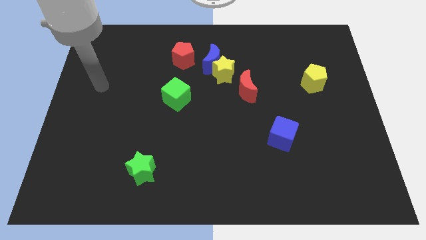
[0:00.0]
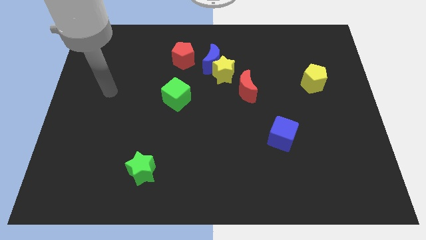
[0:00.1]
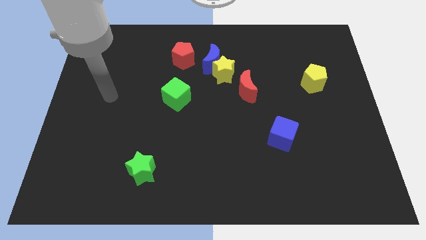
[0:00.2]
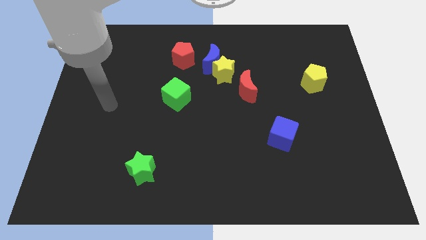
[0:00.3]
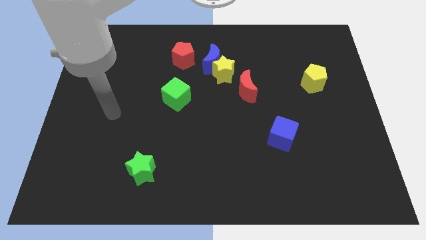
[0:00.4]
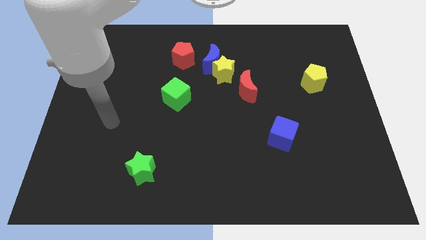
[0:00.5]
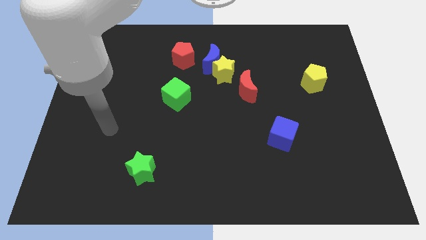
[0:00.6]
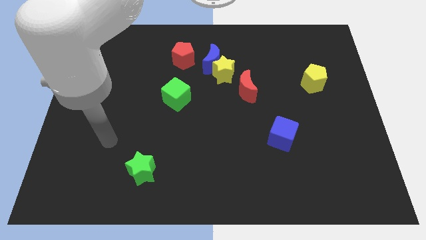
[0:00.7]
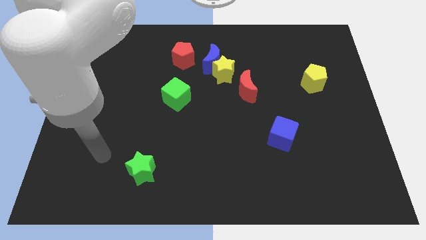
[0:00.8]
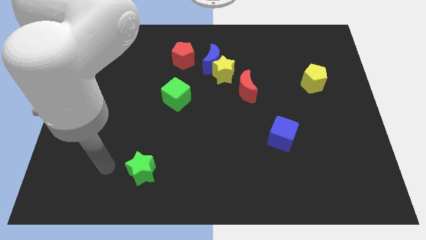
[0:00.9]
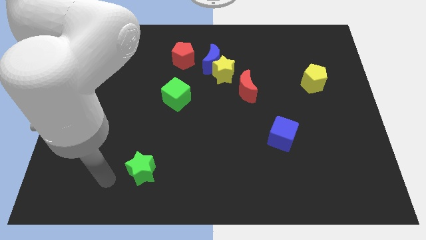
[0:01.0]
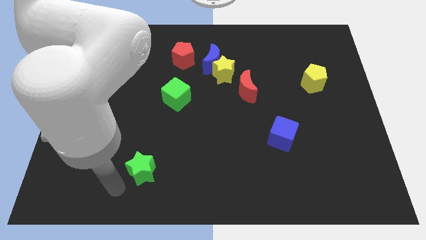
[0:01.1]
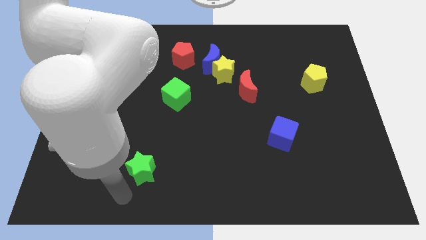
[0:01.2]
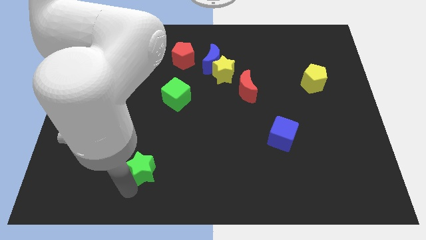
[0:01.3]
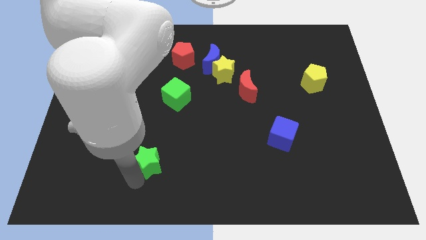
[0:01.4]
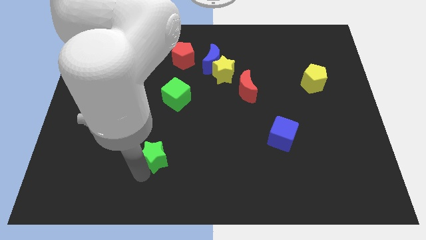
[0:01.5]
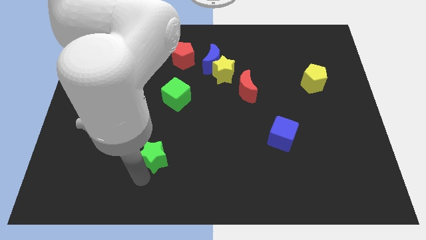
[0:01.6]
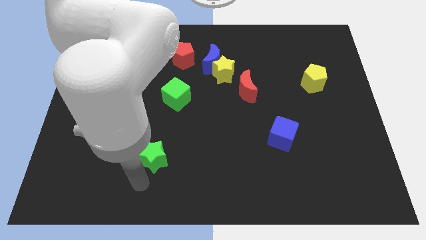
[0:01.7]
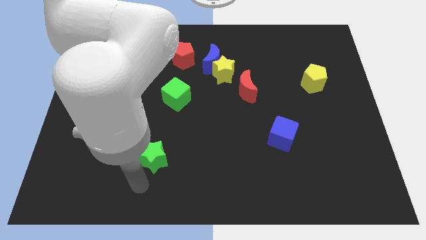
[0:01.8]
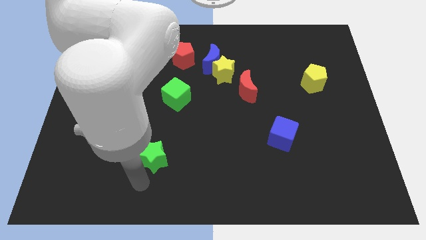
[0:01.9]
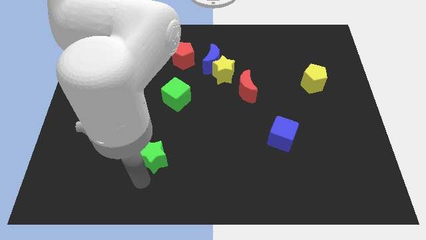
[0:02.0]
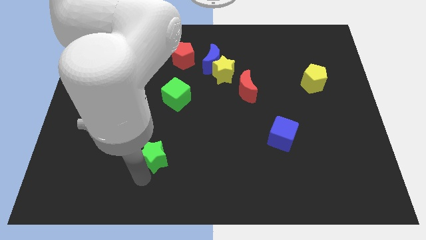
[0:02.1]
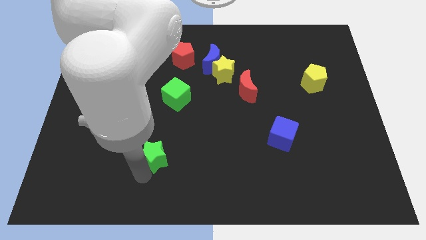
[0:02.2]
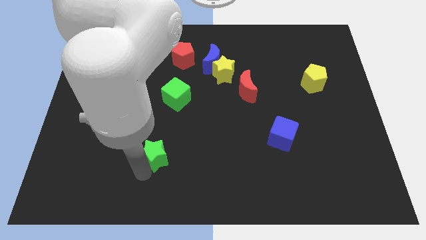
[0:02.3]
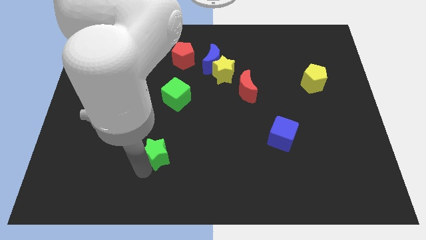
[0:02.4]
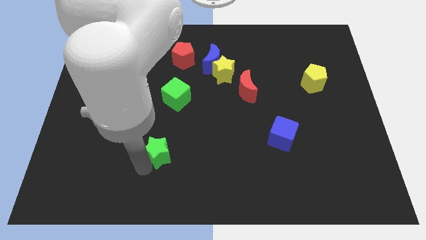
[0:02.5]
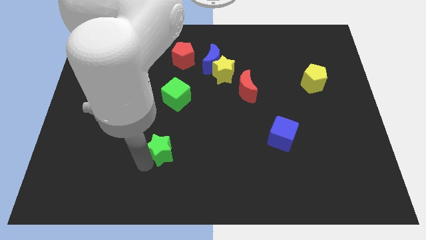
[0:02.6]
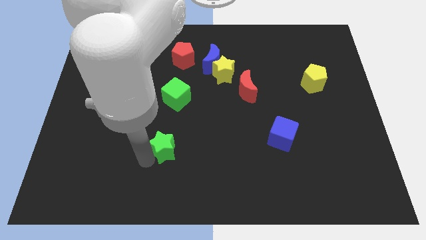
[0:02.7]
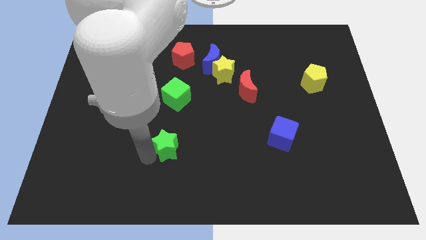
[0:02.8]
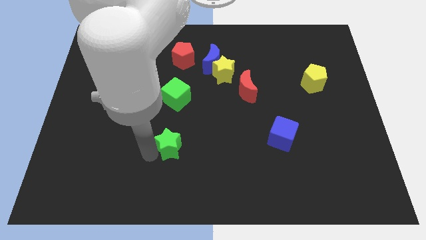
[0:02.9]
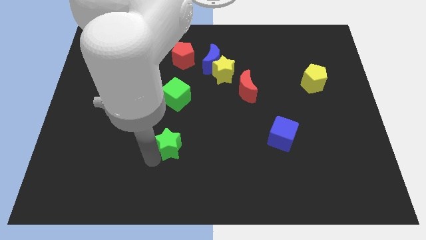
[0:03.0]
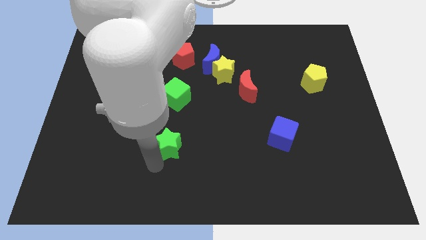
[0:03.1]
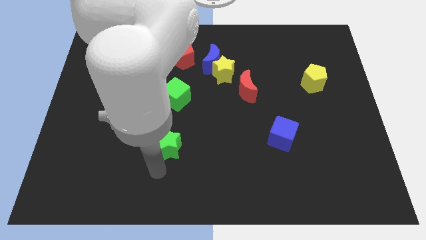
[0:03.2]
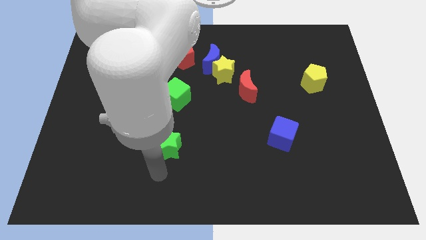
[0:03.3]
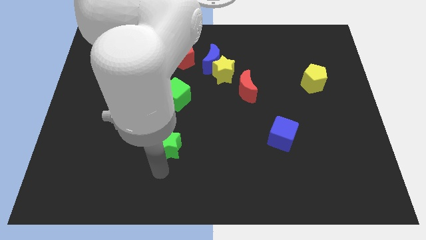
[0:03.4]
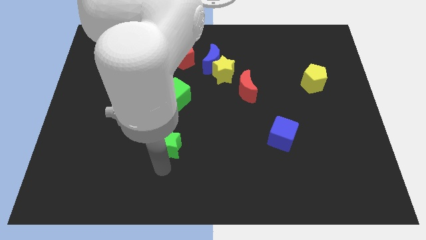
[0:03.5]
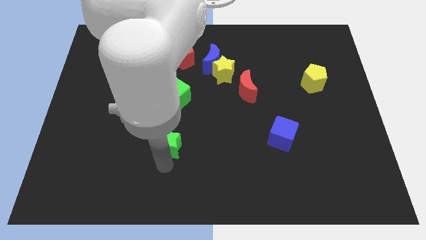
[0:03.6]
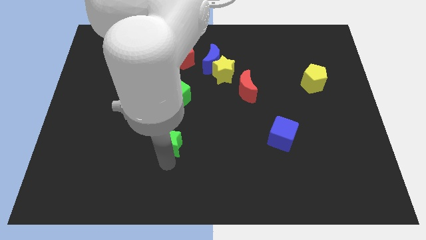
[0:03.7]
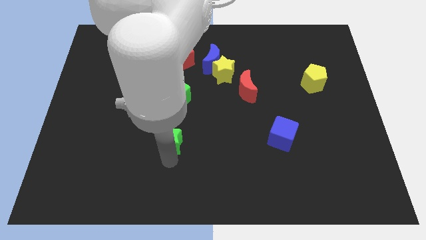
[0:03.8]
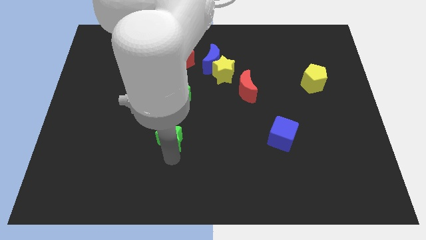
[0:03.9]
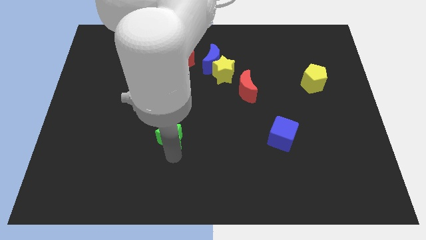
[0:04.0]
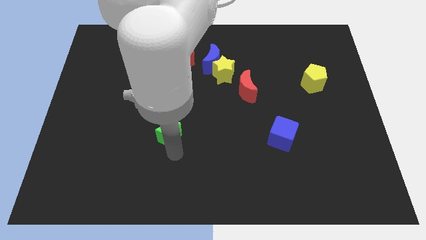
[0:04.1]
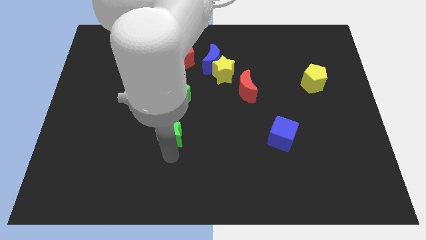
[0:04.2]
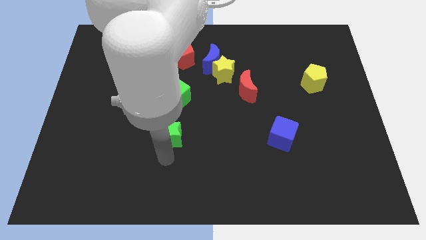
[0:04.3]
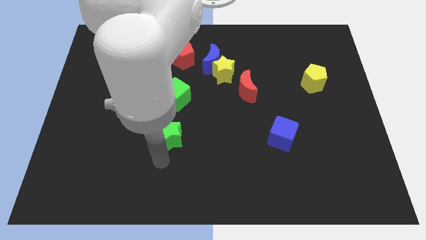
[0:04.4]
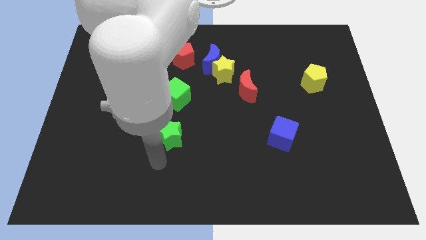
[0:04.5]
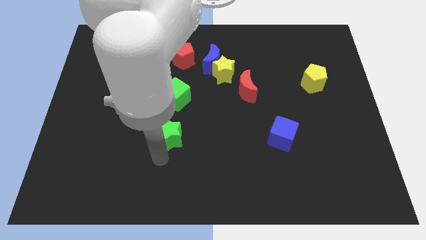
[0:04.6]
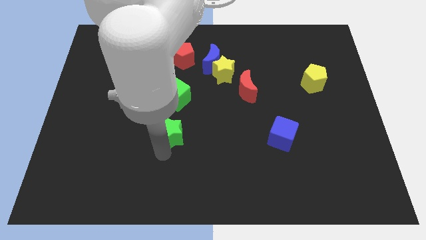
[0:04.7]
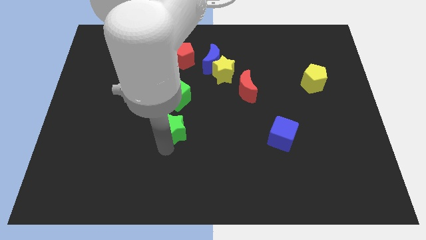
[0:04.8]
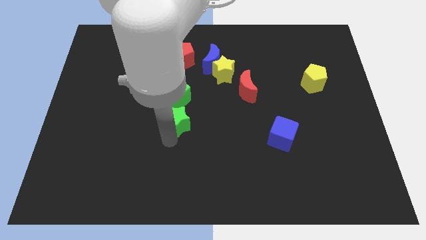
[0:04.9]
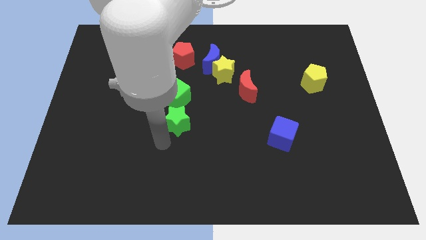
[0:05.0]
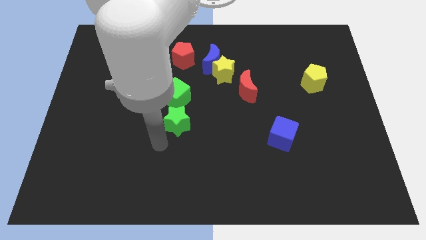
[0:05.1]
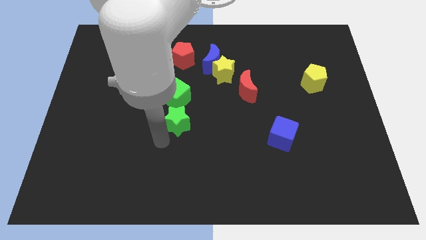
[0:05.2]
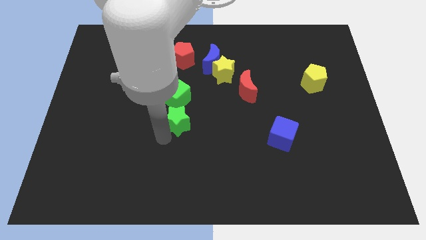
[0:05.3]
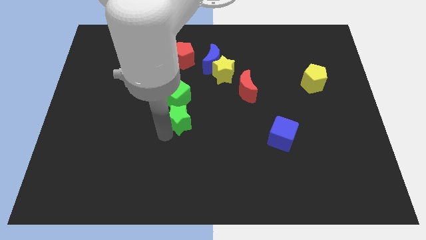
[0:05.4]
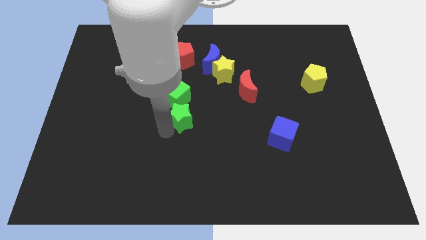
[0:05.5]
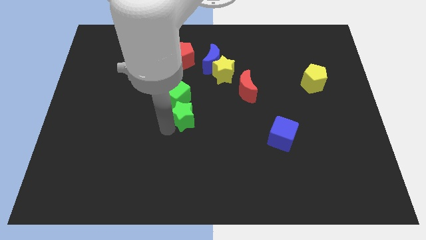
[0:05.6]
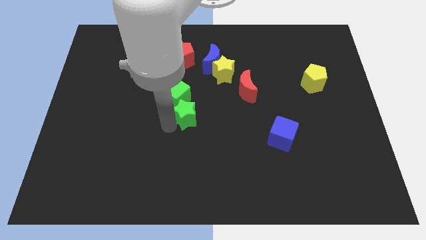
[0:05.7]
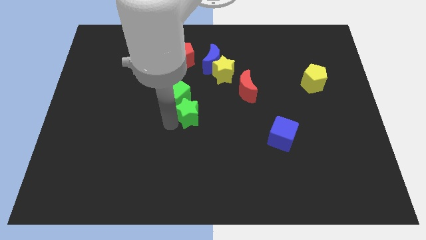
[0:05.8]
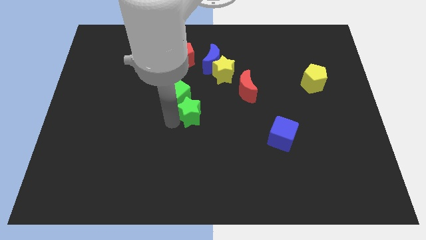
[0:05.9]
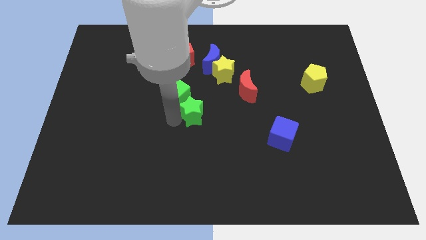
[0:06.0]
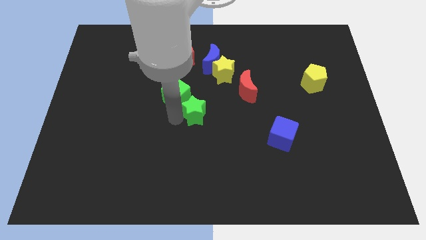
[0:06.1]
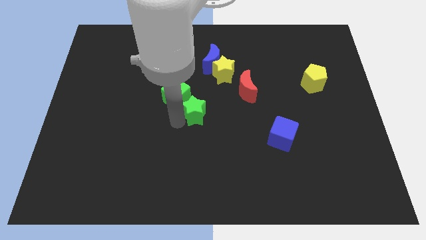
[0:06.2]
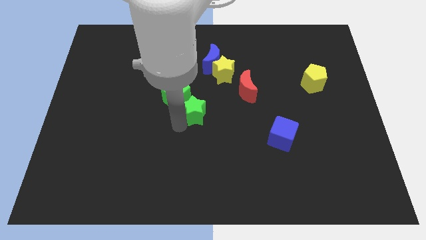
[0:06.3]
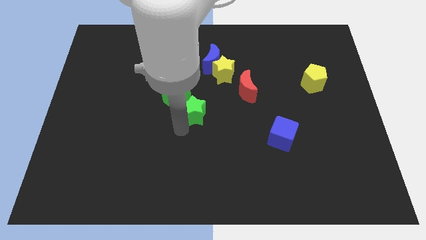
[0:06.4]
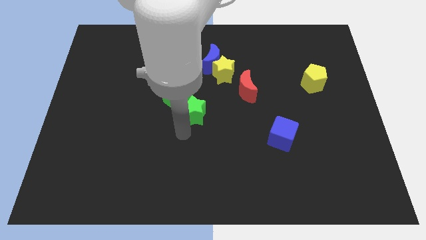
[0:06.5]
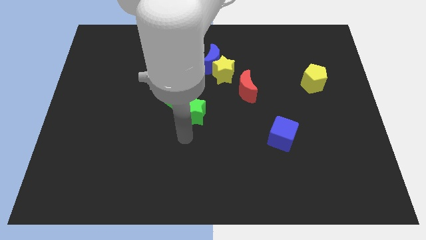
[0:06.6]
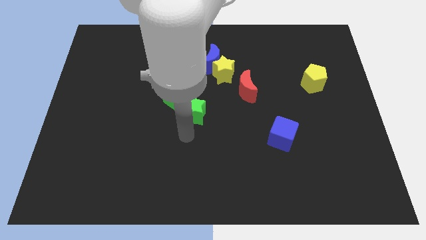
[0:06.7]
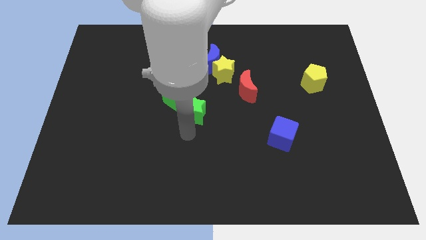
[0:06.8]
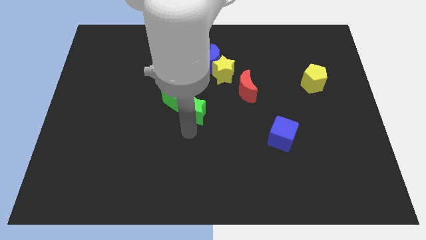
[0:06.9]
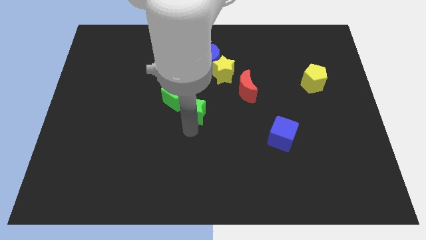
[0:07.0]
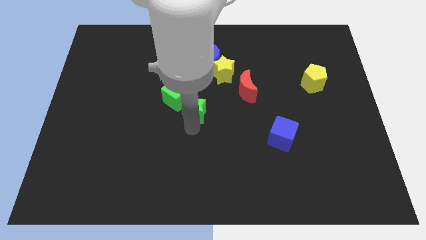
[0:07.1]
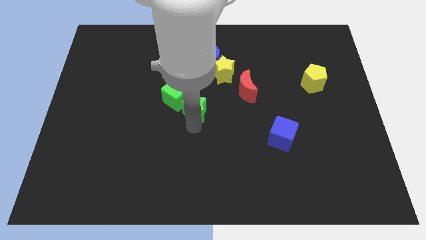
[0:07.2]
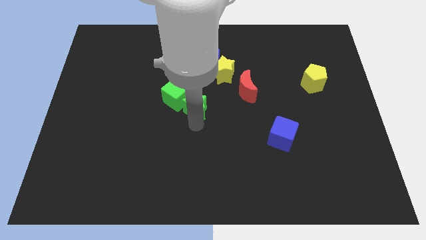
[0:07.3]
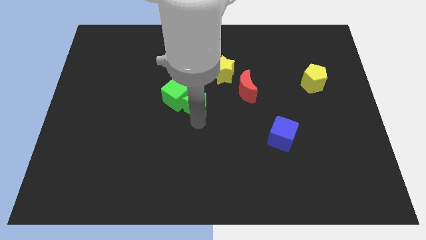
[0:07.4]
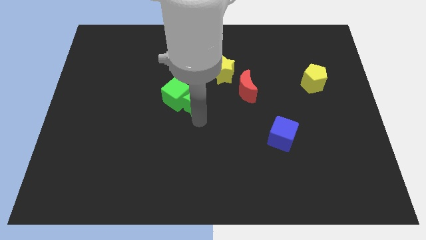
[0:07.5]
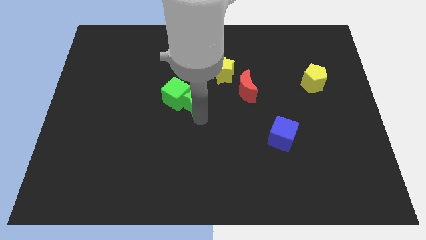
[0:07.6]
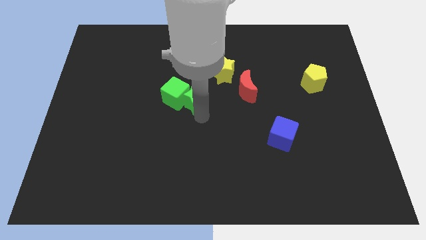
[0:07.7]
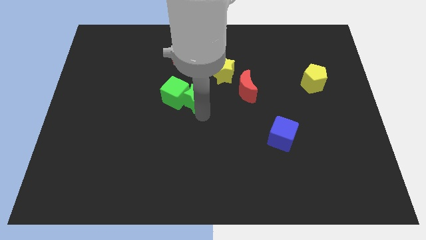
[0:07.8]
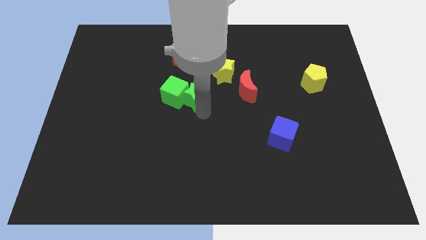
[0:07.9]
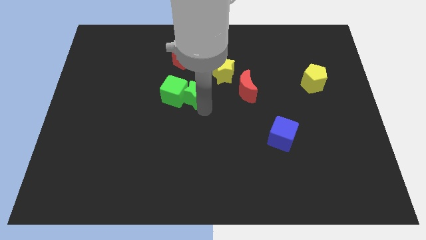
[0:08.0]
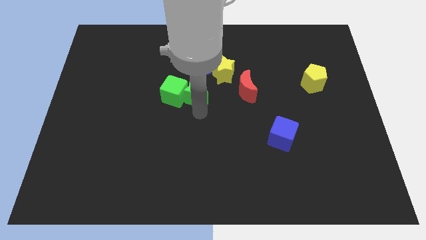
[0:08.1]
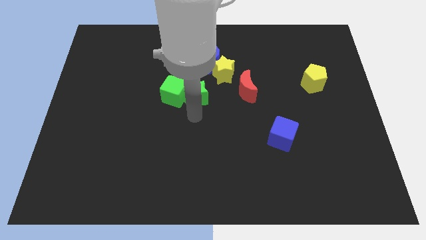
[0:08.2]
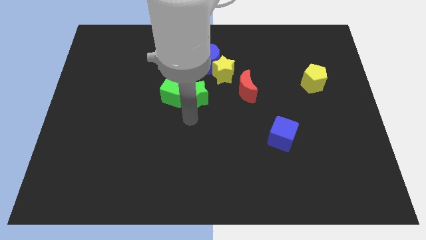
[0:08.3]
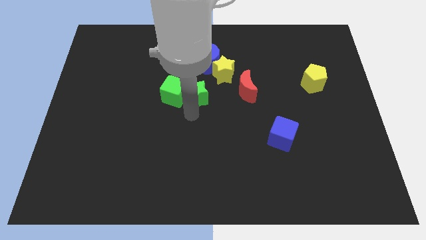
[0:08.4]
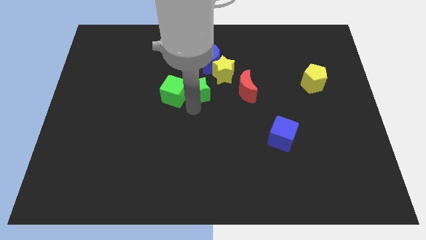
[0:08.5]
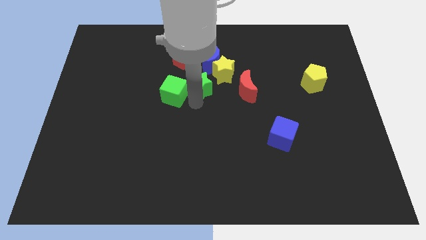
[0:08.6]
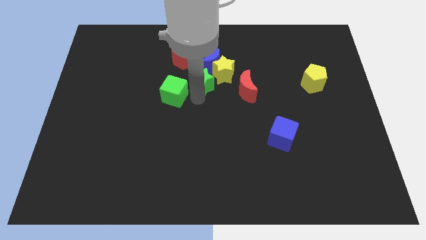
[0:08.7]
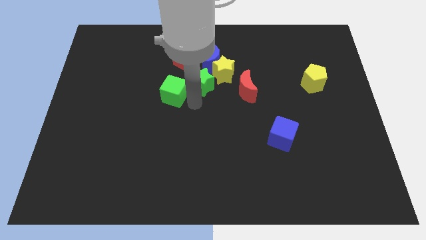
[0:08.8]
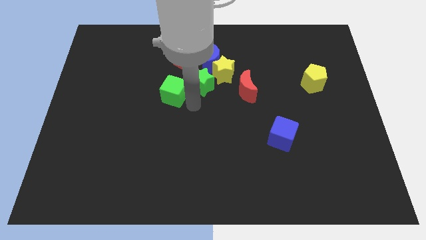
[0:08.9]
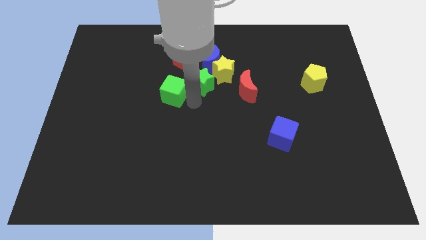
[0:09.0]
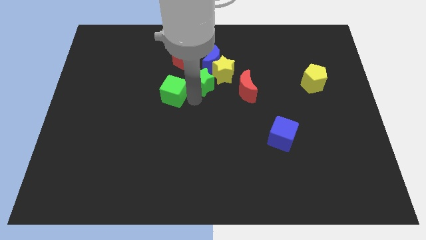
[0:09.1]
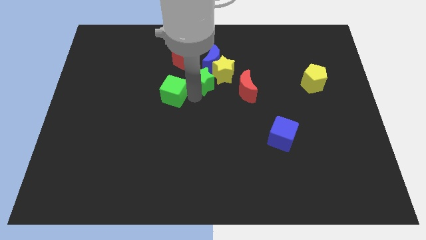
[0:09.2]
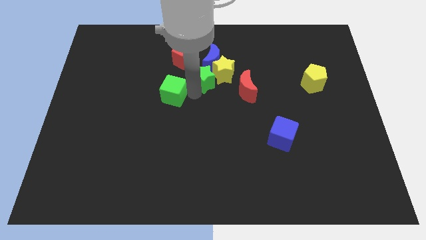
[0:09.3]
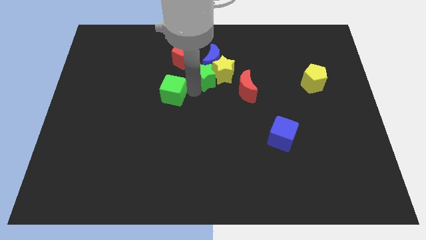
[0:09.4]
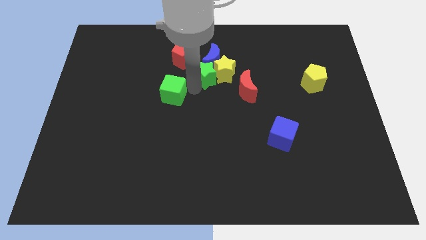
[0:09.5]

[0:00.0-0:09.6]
put the green star close to the blue moon
